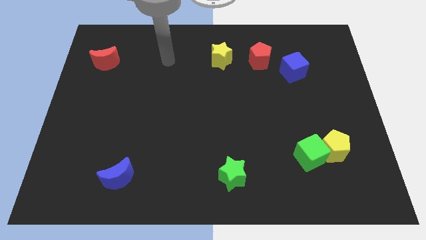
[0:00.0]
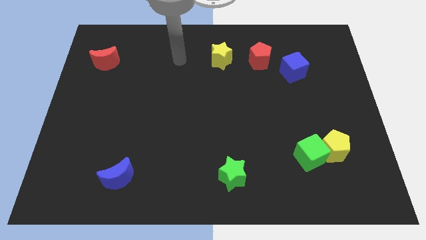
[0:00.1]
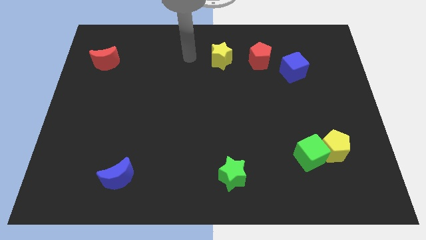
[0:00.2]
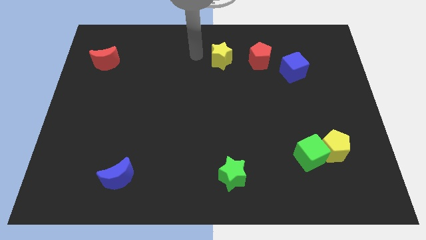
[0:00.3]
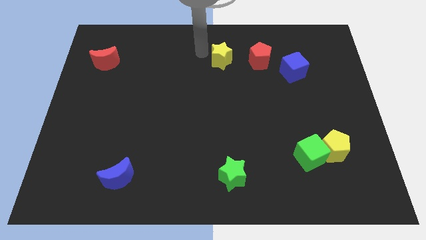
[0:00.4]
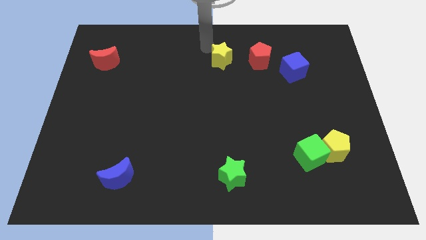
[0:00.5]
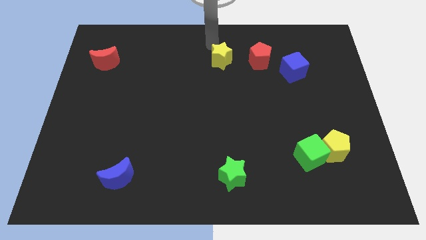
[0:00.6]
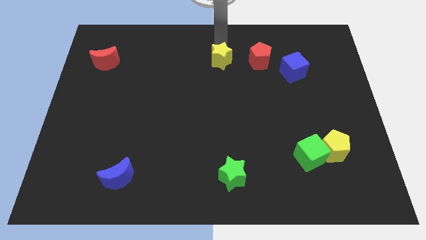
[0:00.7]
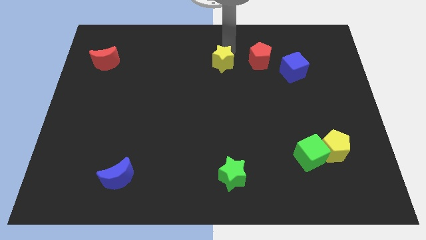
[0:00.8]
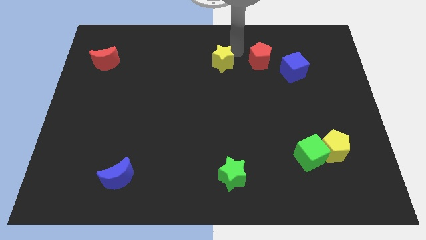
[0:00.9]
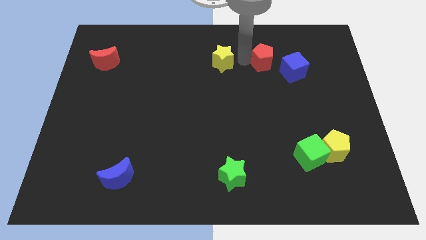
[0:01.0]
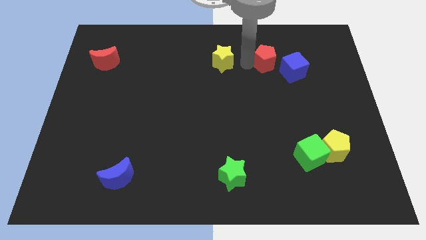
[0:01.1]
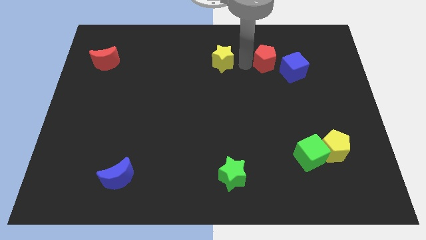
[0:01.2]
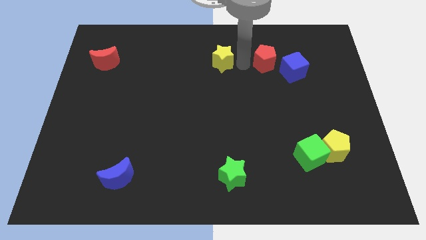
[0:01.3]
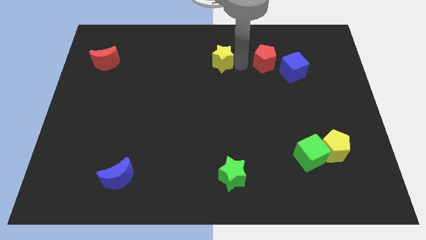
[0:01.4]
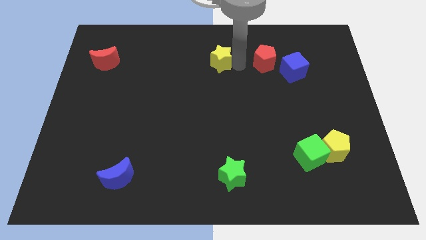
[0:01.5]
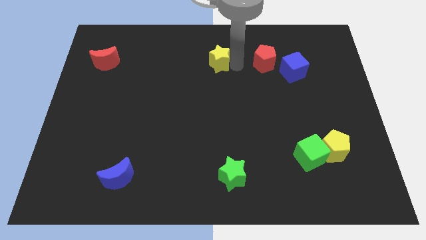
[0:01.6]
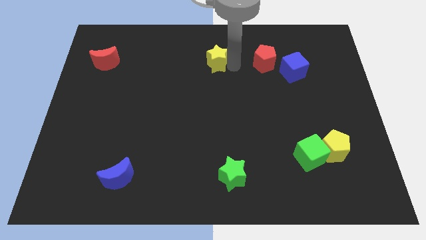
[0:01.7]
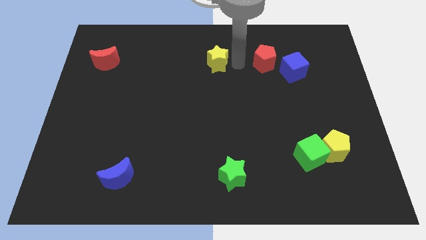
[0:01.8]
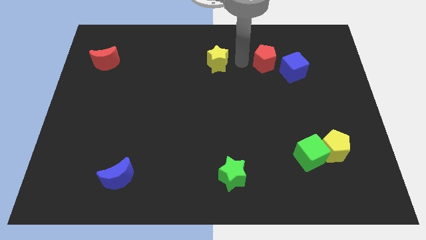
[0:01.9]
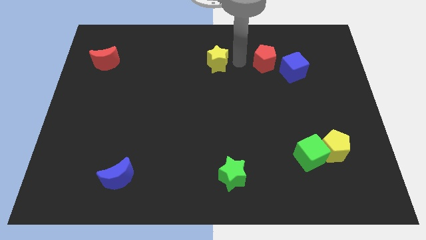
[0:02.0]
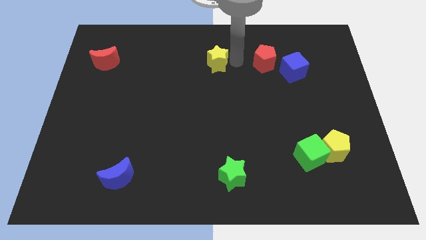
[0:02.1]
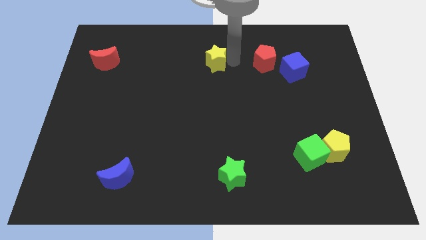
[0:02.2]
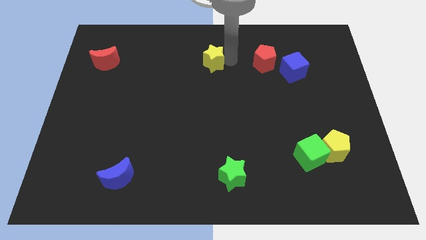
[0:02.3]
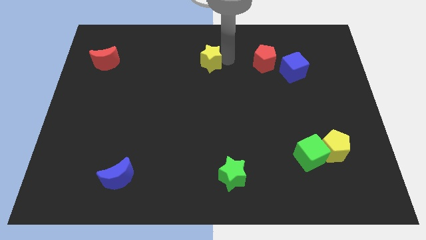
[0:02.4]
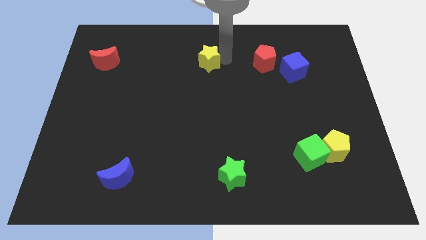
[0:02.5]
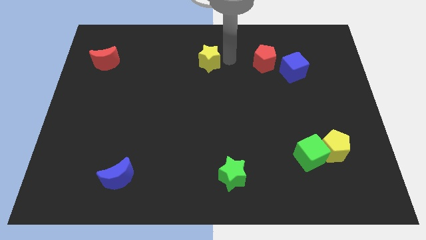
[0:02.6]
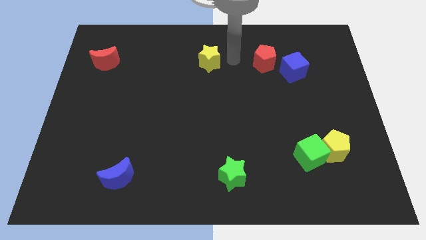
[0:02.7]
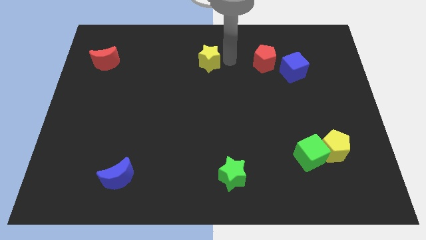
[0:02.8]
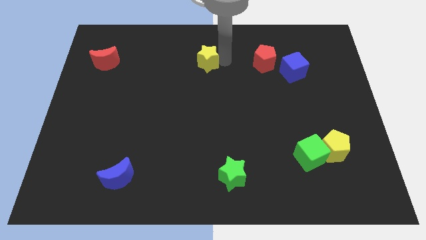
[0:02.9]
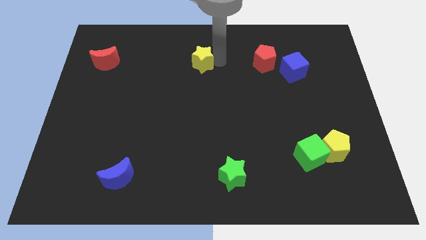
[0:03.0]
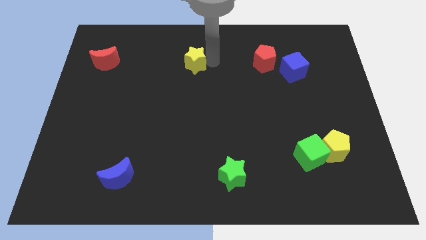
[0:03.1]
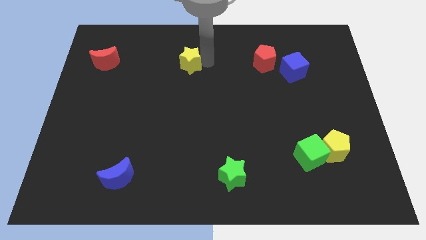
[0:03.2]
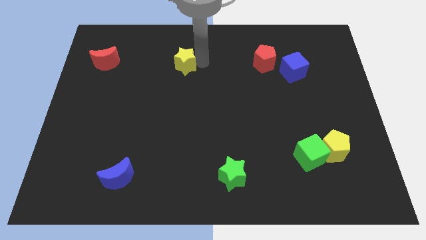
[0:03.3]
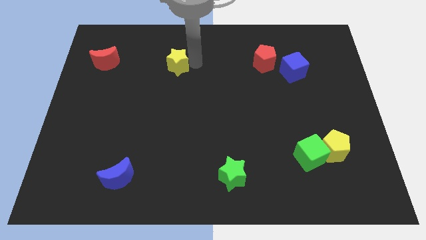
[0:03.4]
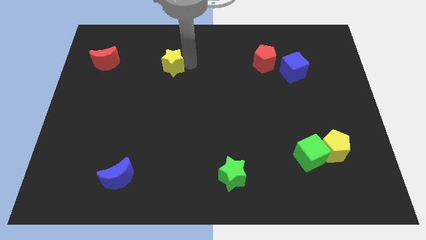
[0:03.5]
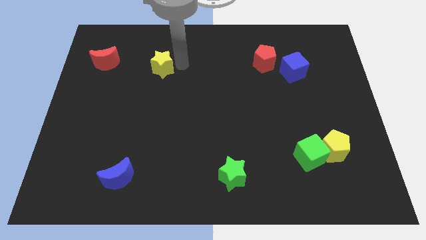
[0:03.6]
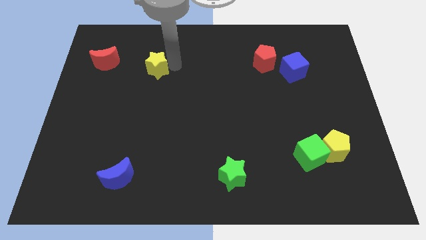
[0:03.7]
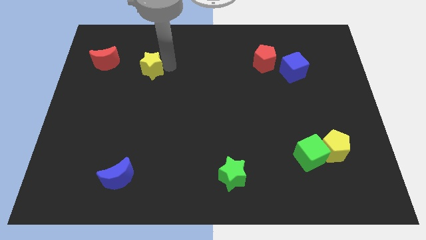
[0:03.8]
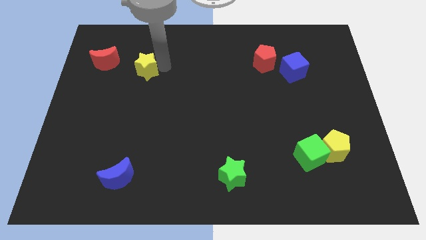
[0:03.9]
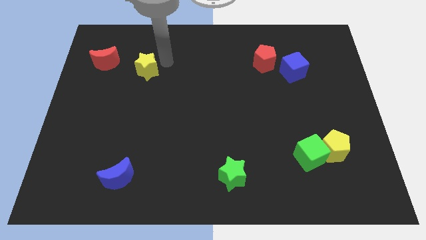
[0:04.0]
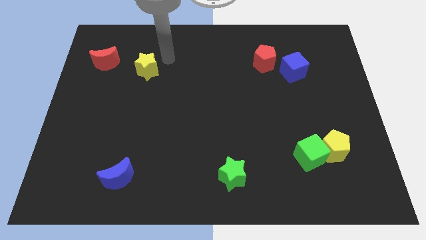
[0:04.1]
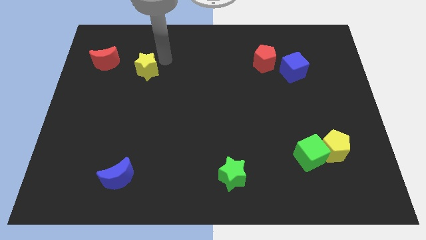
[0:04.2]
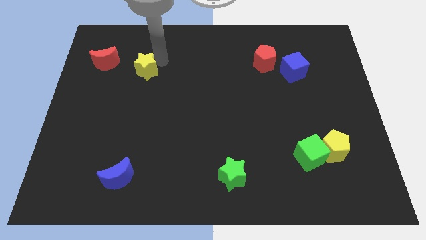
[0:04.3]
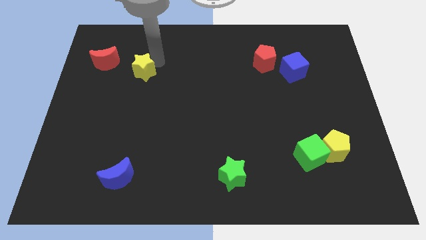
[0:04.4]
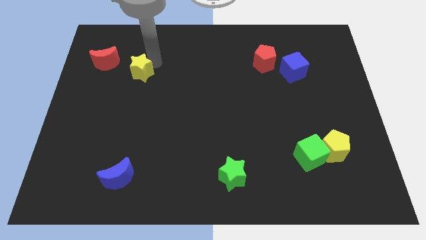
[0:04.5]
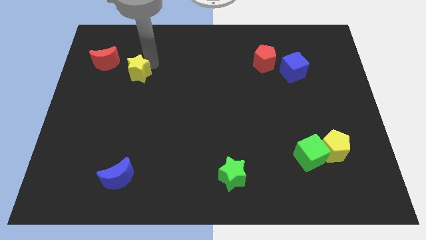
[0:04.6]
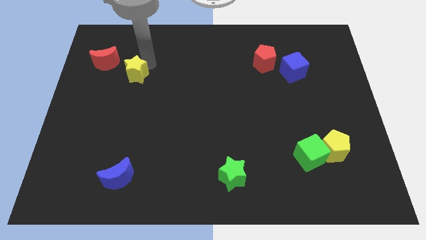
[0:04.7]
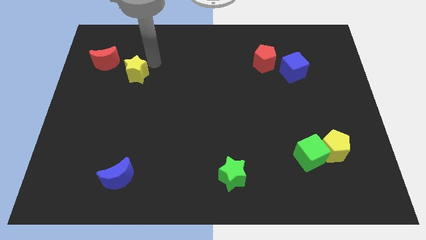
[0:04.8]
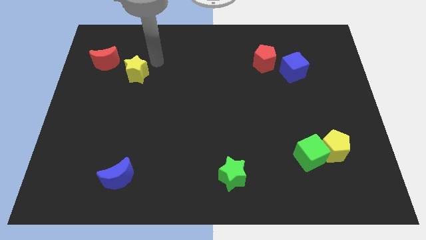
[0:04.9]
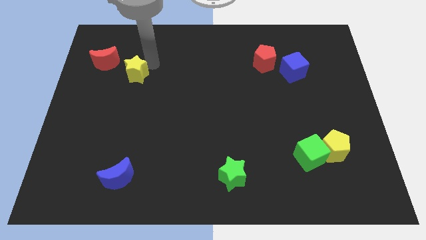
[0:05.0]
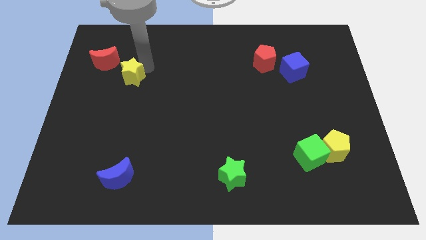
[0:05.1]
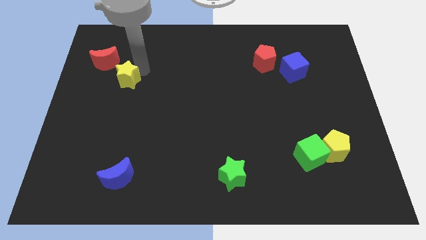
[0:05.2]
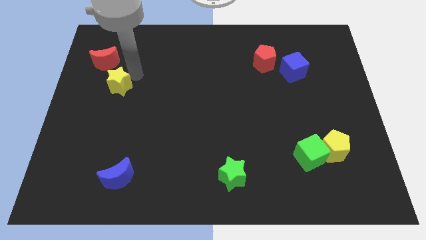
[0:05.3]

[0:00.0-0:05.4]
push the yellow star below the red moon

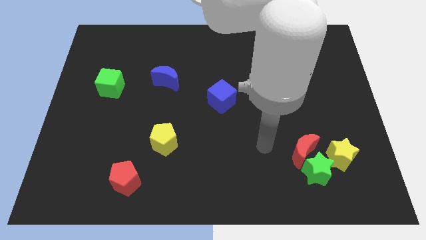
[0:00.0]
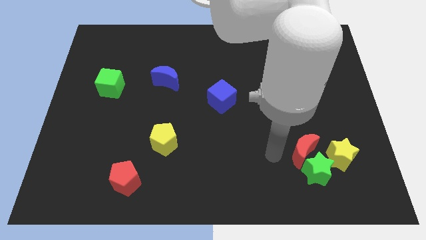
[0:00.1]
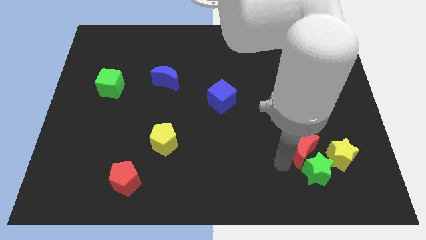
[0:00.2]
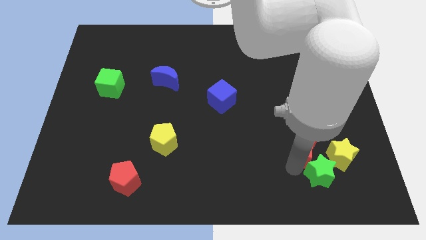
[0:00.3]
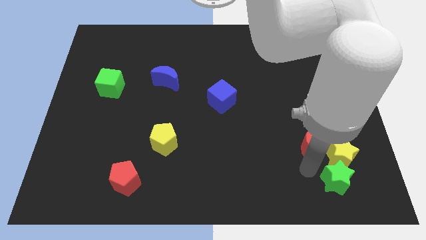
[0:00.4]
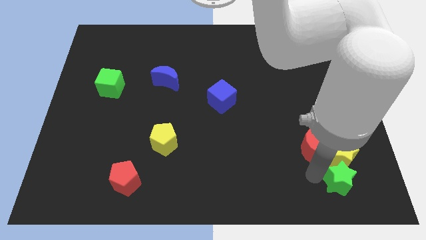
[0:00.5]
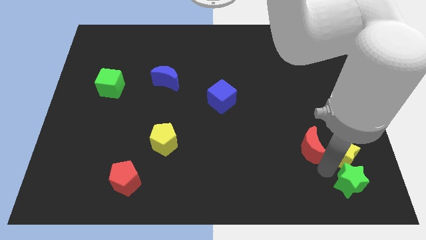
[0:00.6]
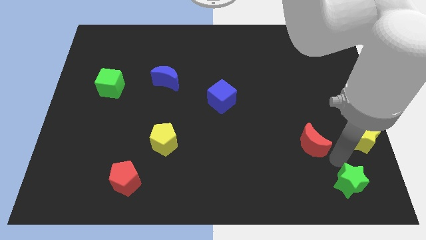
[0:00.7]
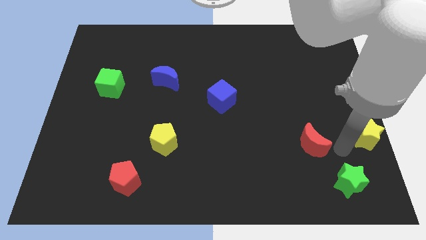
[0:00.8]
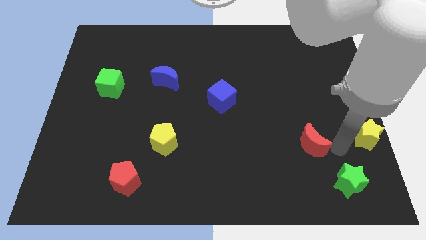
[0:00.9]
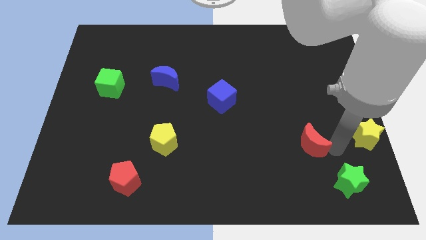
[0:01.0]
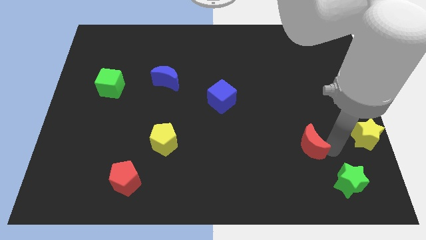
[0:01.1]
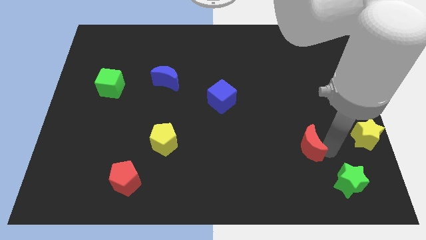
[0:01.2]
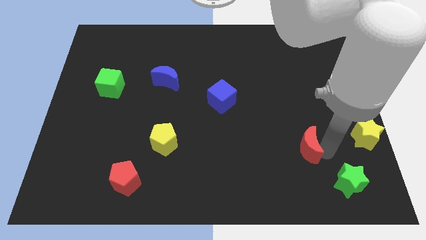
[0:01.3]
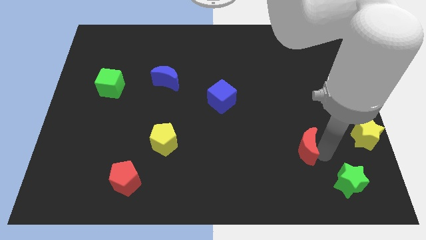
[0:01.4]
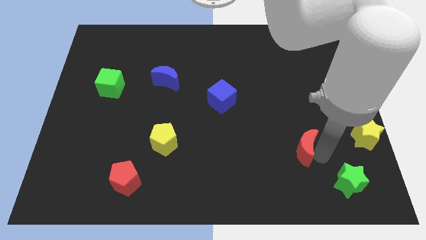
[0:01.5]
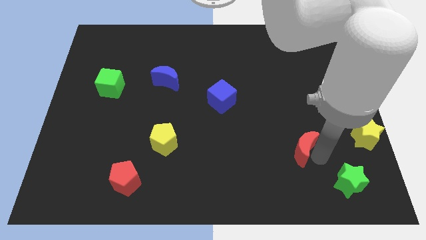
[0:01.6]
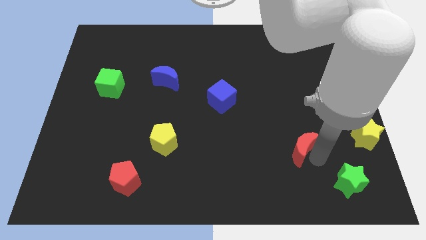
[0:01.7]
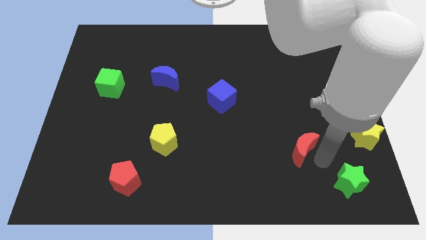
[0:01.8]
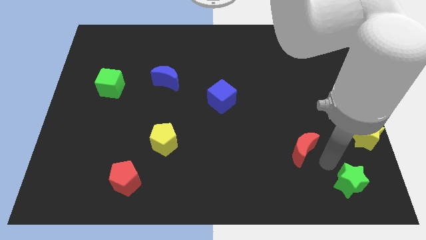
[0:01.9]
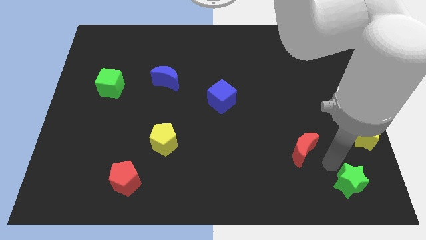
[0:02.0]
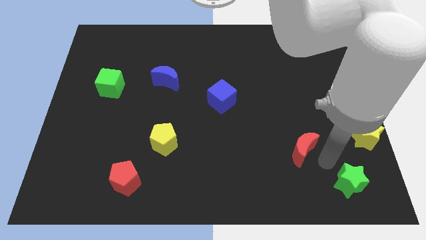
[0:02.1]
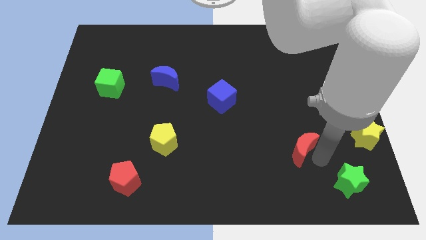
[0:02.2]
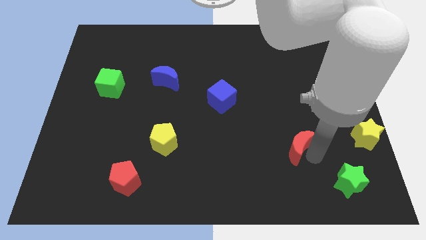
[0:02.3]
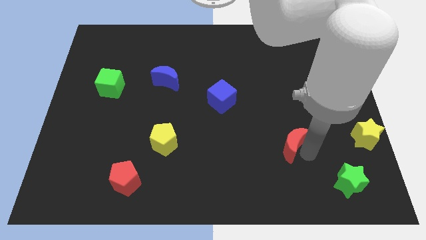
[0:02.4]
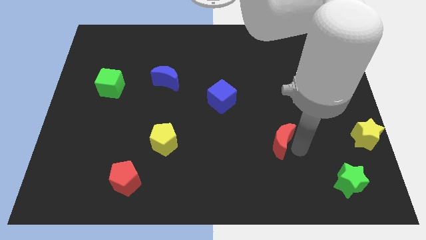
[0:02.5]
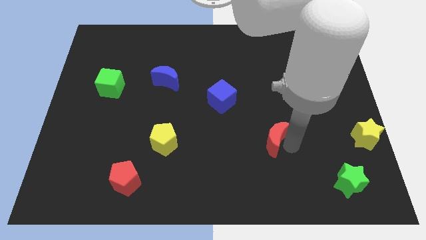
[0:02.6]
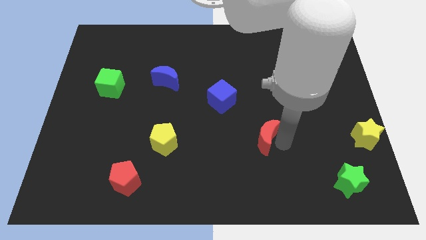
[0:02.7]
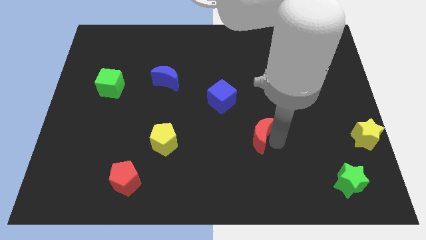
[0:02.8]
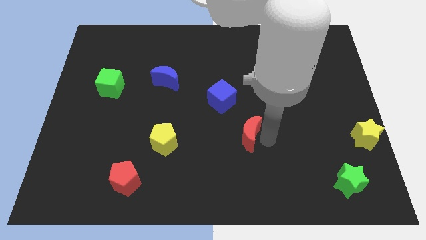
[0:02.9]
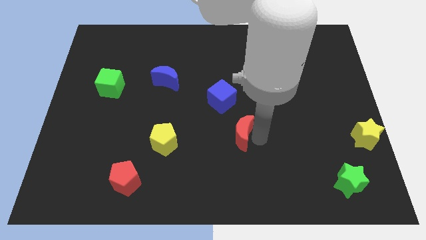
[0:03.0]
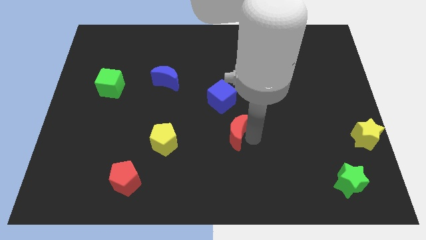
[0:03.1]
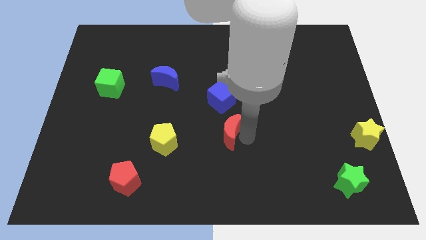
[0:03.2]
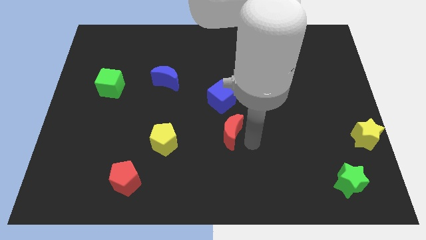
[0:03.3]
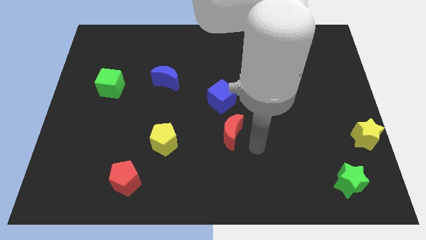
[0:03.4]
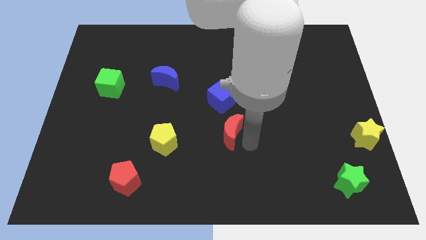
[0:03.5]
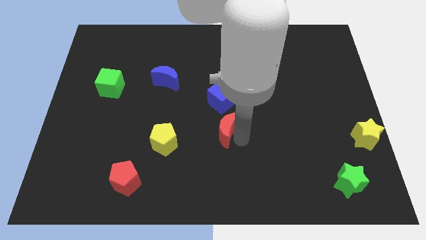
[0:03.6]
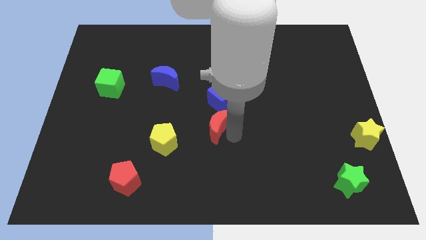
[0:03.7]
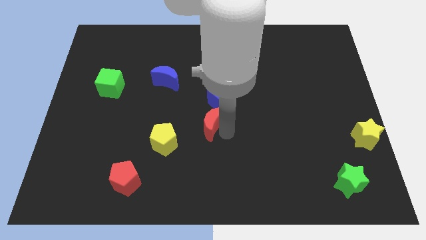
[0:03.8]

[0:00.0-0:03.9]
push the red moon to the bottom left side of the blue cube
